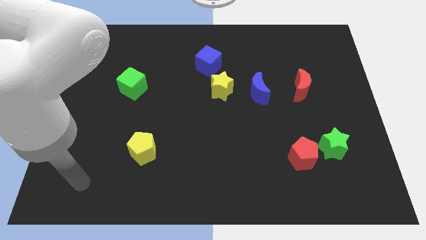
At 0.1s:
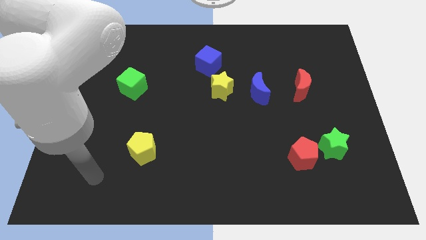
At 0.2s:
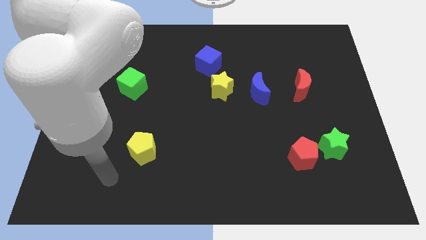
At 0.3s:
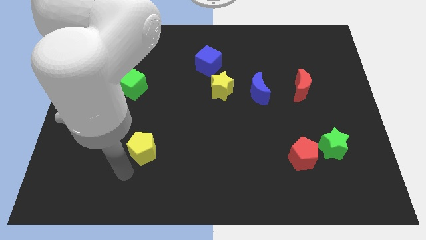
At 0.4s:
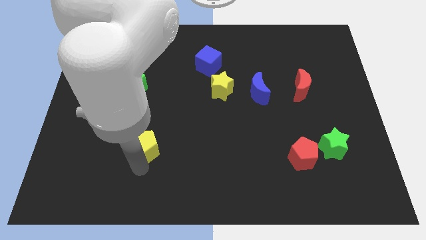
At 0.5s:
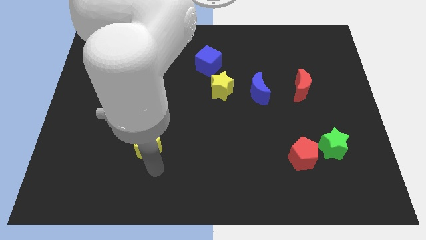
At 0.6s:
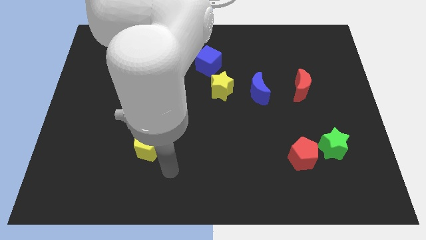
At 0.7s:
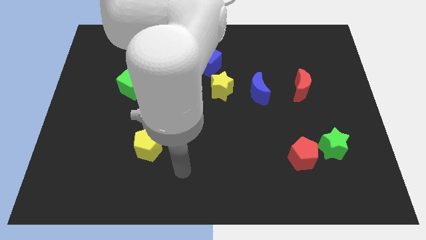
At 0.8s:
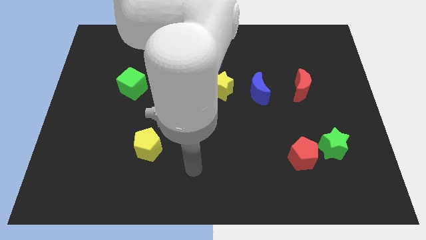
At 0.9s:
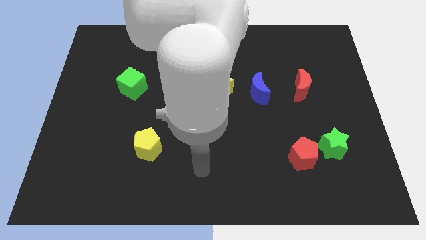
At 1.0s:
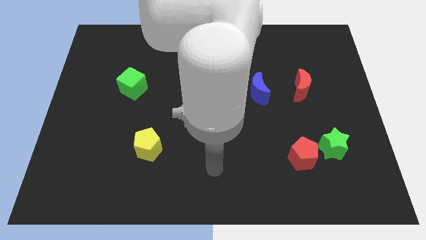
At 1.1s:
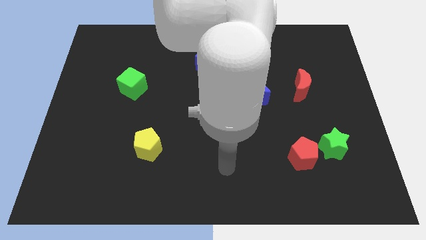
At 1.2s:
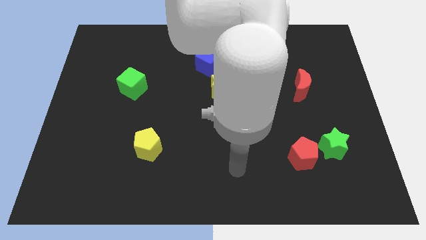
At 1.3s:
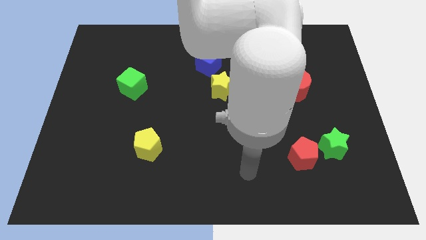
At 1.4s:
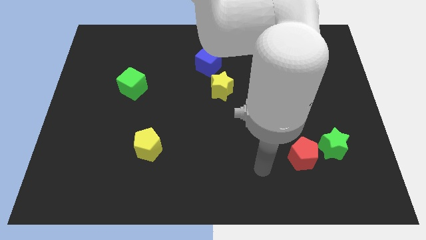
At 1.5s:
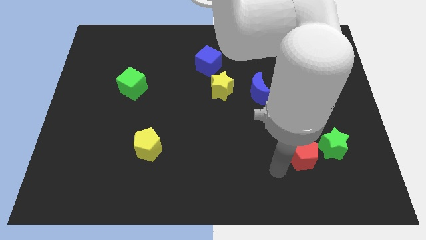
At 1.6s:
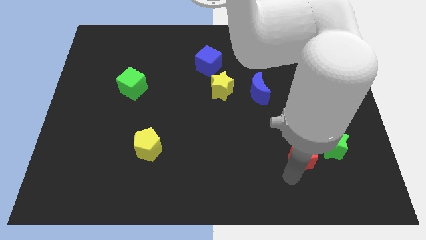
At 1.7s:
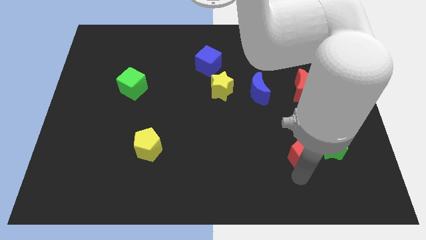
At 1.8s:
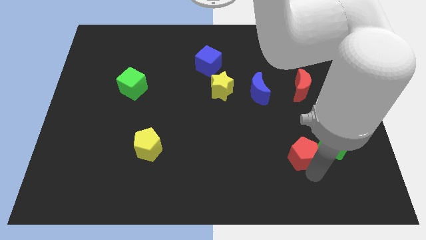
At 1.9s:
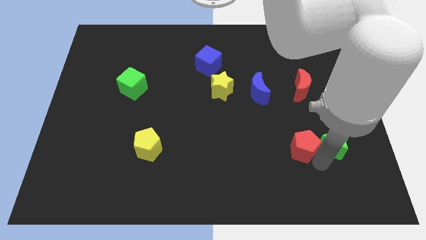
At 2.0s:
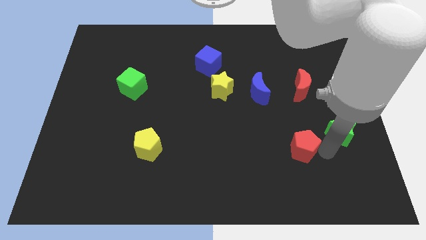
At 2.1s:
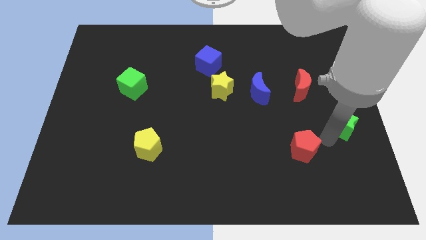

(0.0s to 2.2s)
separate the red pentagon from the green star

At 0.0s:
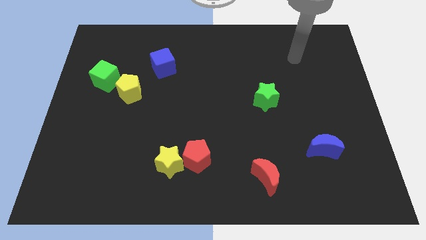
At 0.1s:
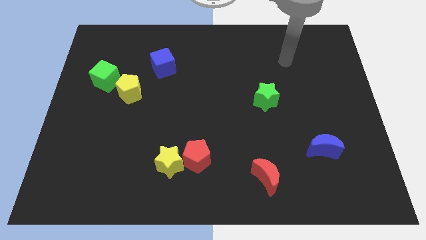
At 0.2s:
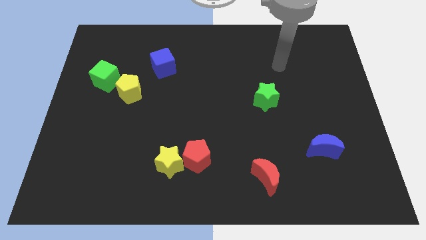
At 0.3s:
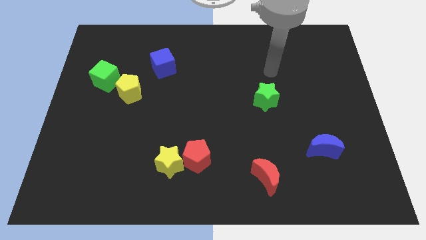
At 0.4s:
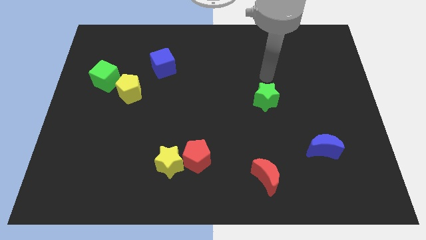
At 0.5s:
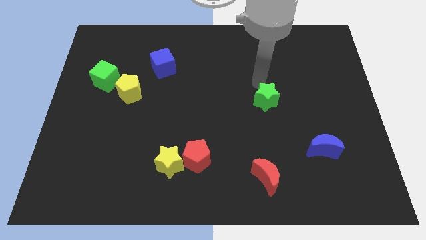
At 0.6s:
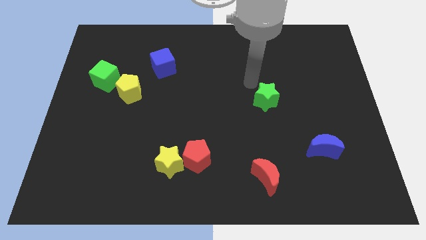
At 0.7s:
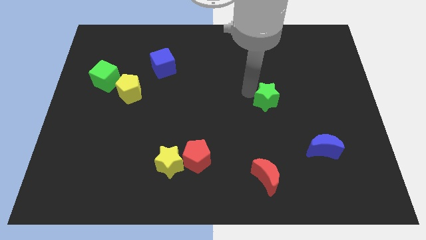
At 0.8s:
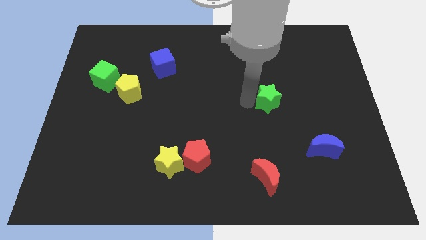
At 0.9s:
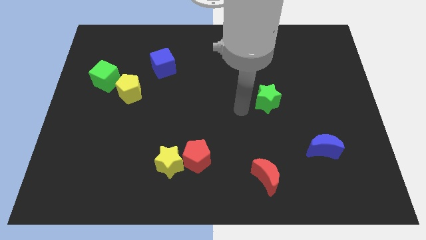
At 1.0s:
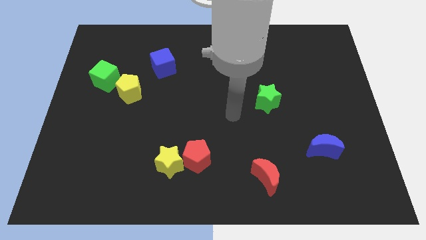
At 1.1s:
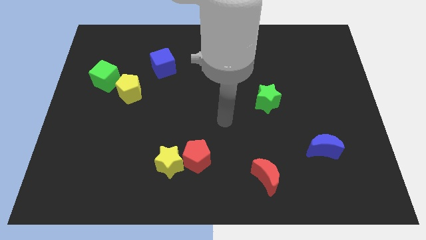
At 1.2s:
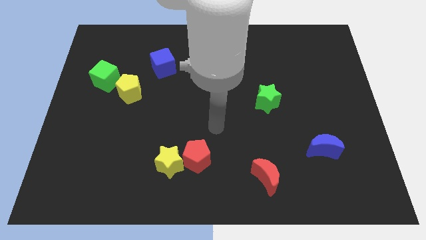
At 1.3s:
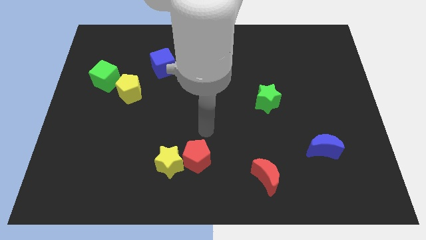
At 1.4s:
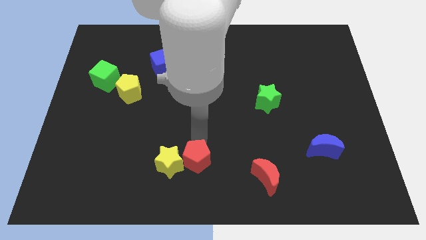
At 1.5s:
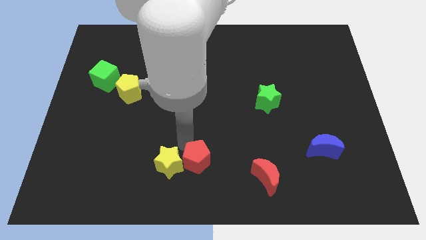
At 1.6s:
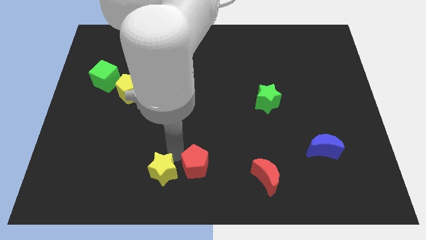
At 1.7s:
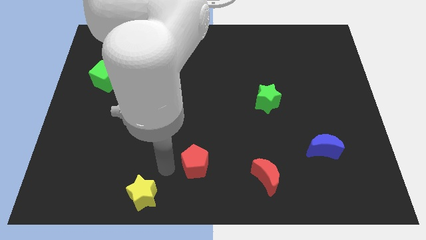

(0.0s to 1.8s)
pull the red pentagon apart from the yellow star

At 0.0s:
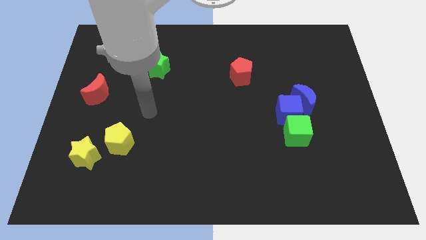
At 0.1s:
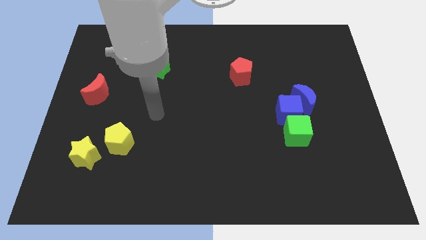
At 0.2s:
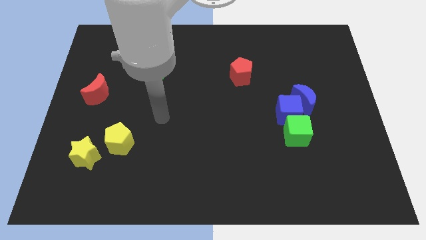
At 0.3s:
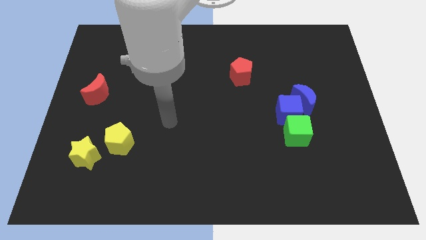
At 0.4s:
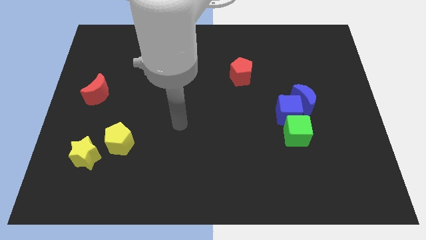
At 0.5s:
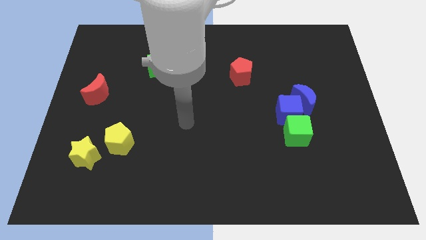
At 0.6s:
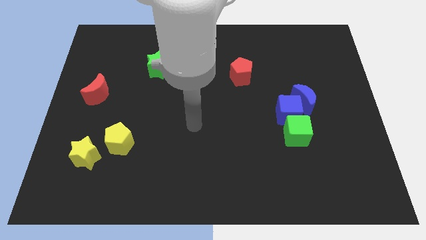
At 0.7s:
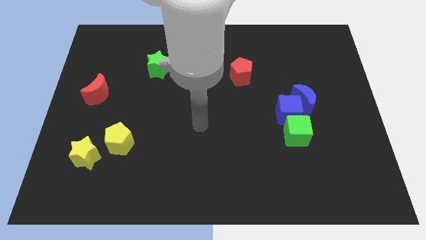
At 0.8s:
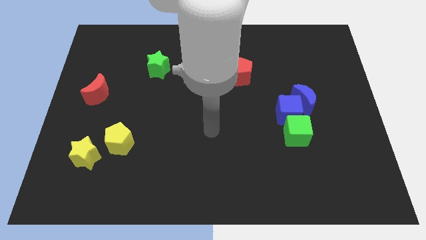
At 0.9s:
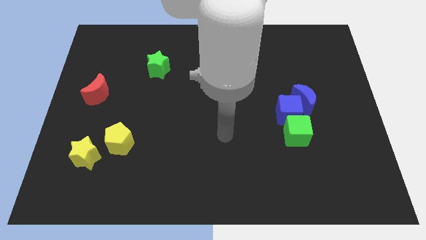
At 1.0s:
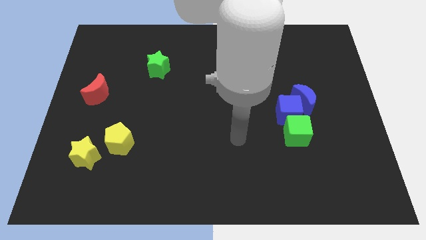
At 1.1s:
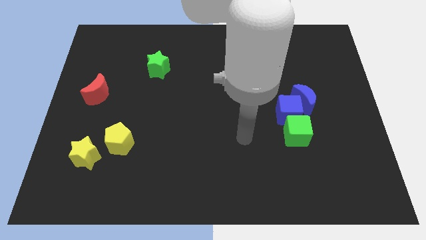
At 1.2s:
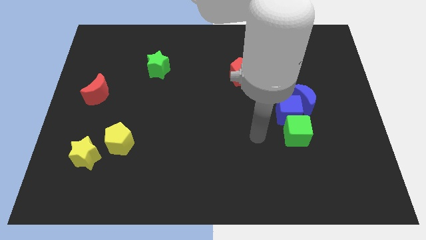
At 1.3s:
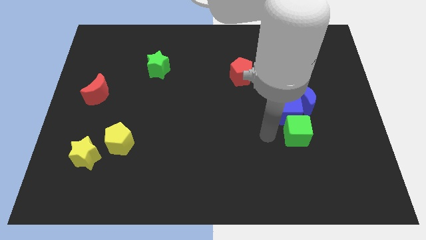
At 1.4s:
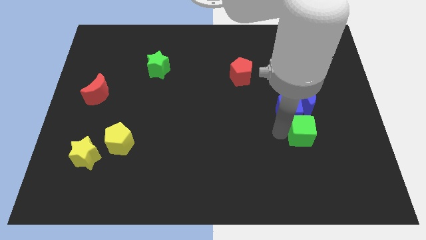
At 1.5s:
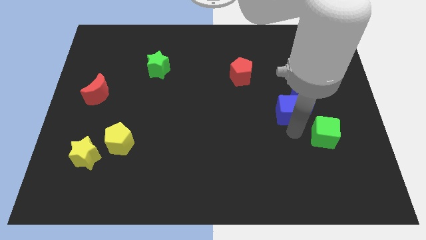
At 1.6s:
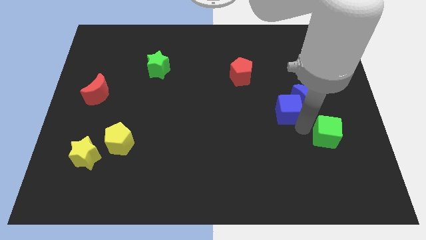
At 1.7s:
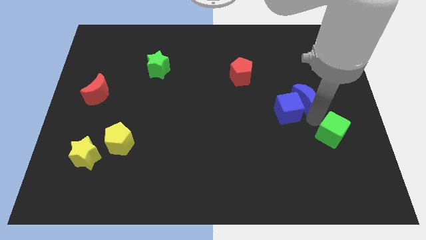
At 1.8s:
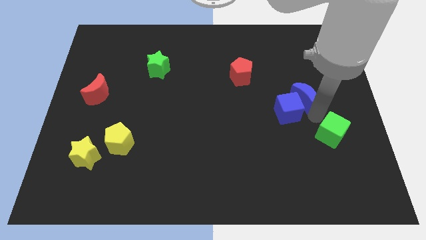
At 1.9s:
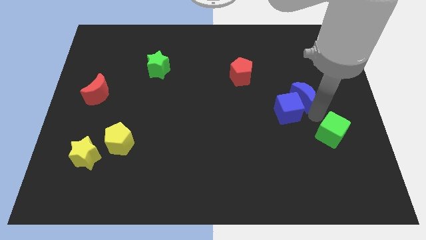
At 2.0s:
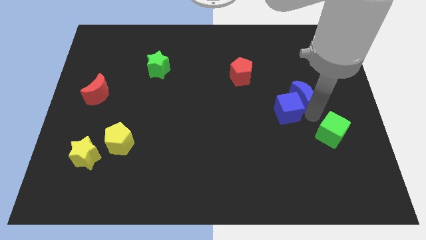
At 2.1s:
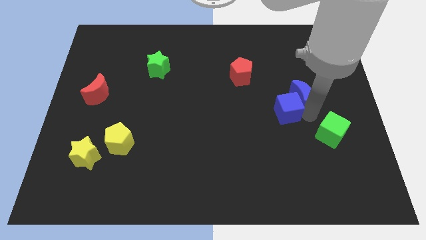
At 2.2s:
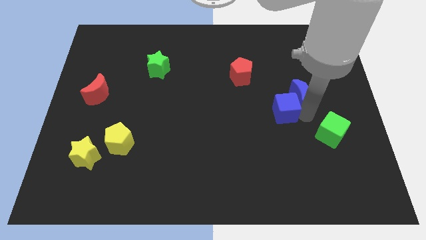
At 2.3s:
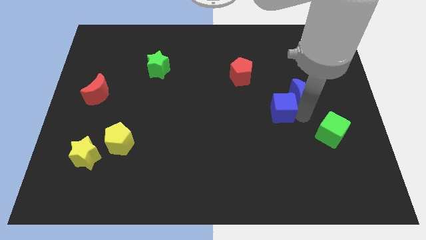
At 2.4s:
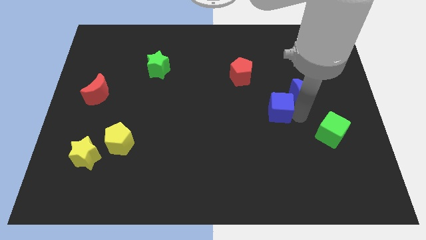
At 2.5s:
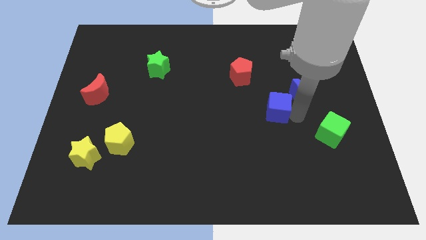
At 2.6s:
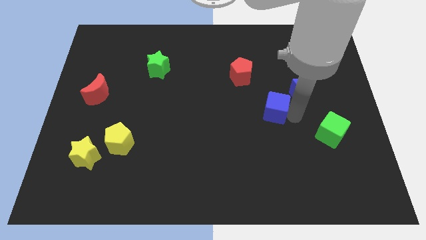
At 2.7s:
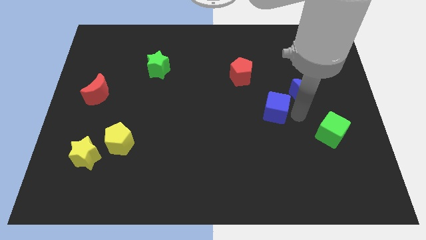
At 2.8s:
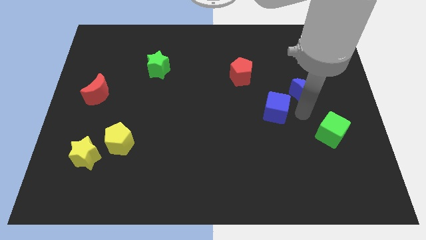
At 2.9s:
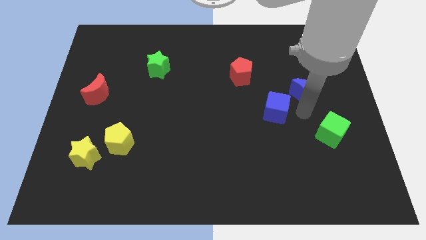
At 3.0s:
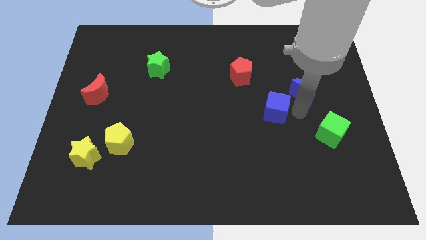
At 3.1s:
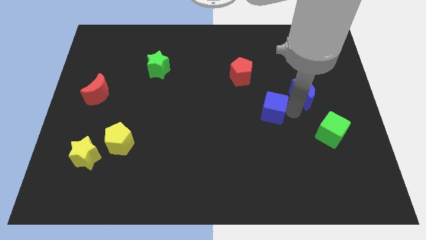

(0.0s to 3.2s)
move the blue cube away from the blue moon and green cube

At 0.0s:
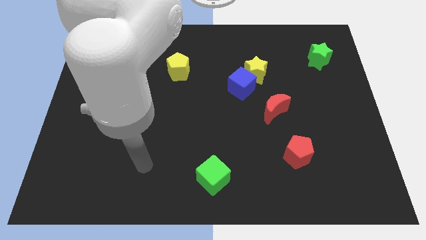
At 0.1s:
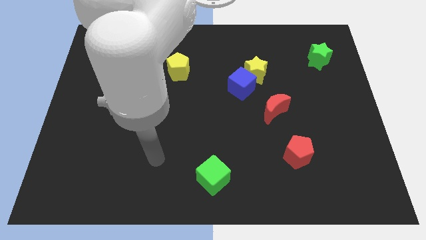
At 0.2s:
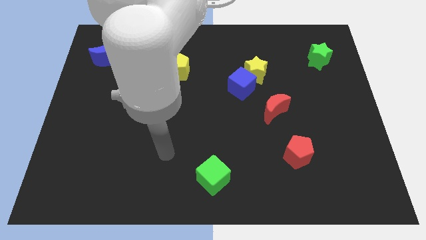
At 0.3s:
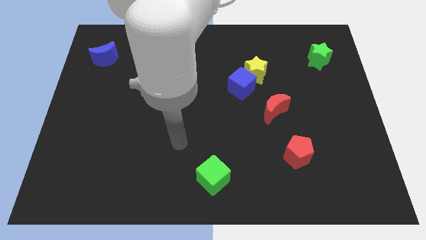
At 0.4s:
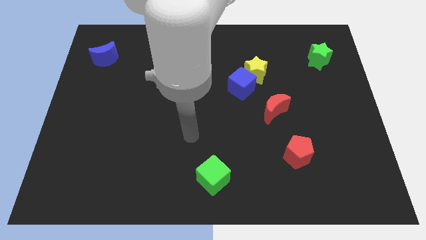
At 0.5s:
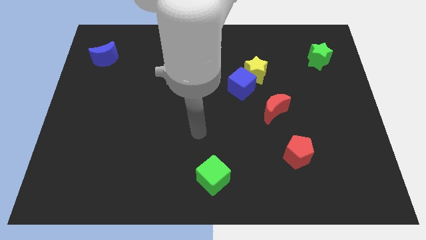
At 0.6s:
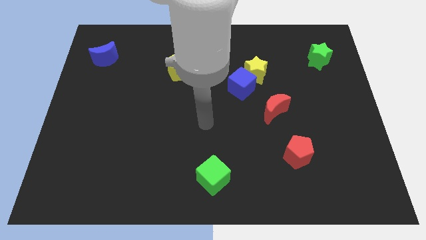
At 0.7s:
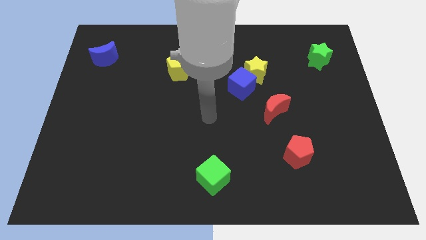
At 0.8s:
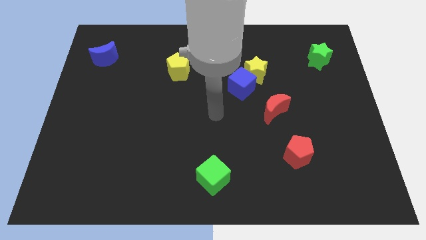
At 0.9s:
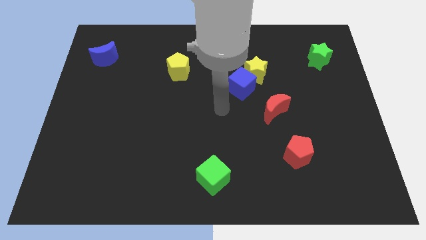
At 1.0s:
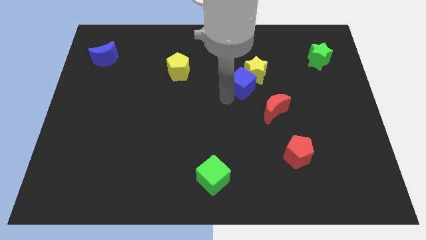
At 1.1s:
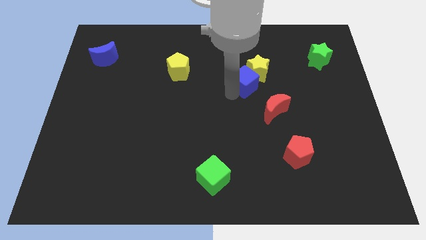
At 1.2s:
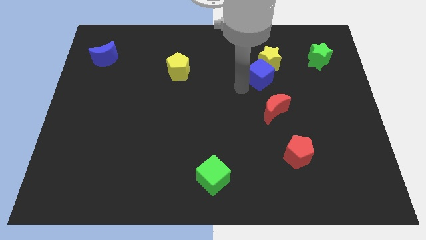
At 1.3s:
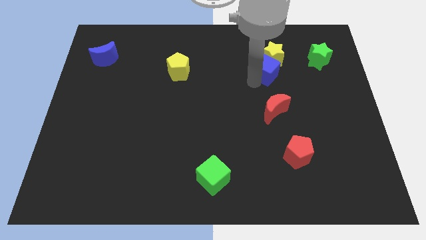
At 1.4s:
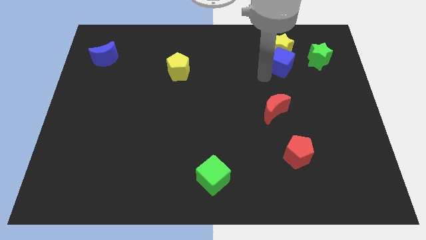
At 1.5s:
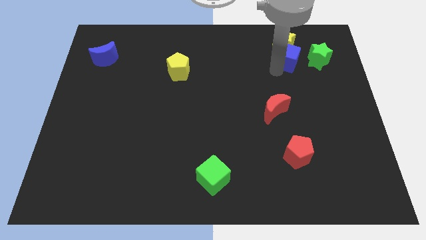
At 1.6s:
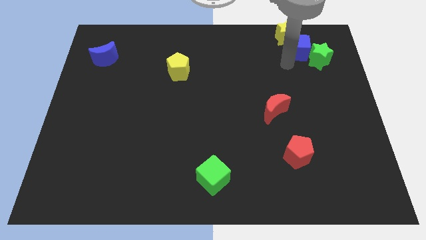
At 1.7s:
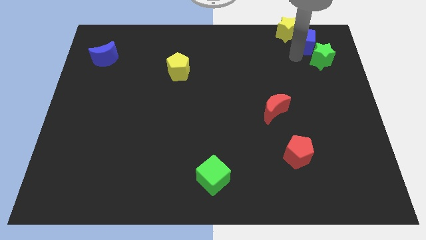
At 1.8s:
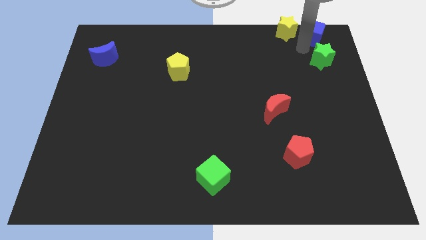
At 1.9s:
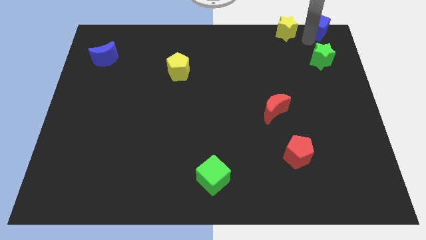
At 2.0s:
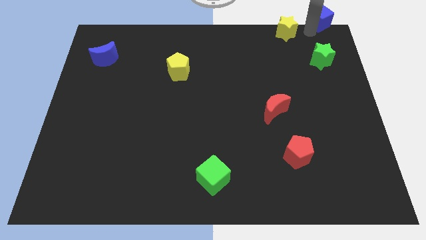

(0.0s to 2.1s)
pull the yellow star apart from the blue cube

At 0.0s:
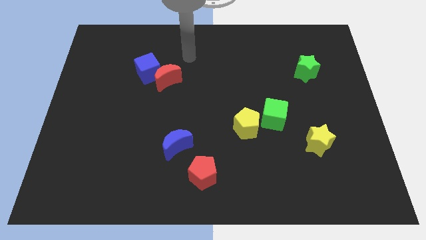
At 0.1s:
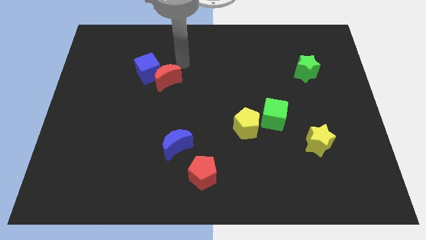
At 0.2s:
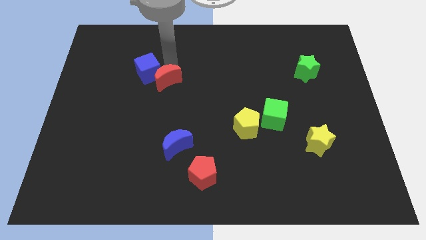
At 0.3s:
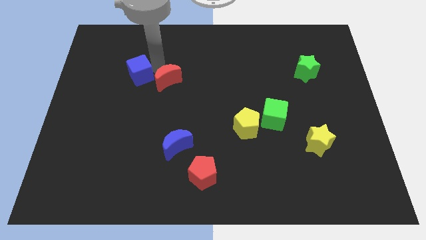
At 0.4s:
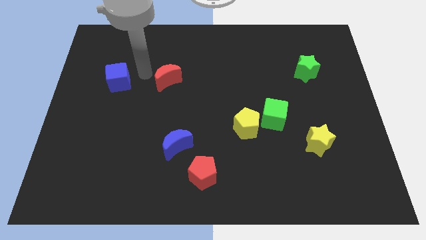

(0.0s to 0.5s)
separate the red moon from the blue cube
